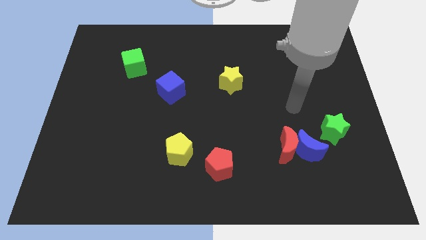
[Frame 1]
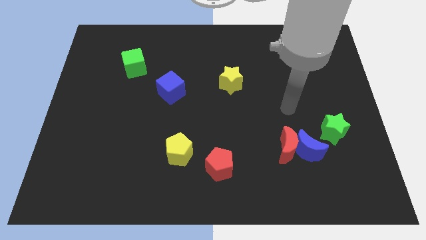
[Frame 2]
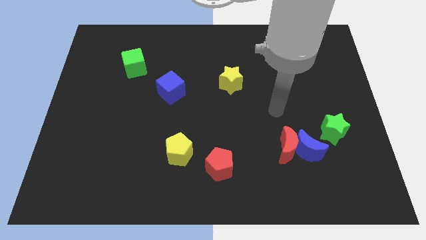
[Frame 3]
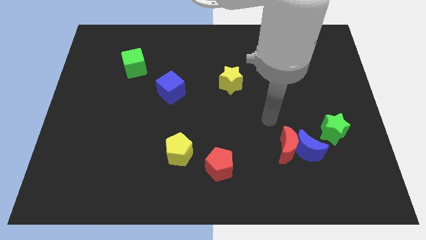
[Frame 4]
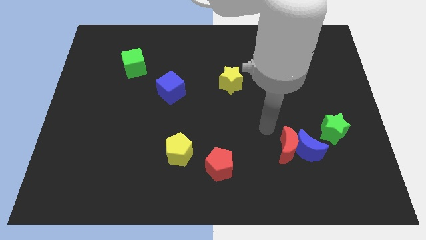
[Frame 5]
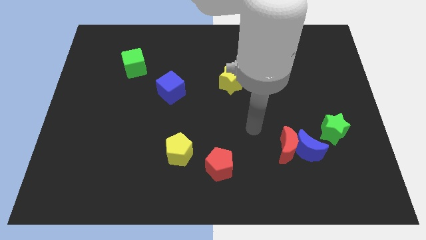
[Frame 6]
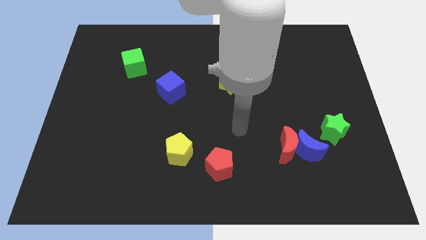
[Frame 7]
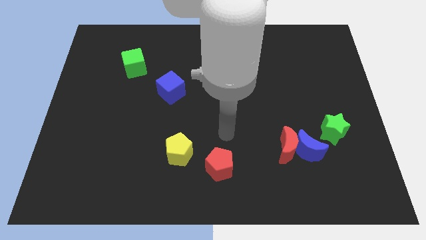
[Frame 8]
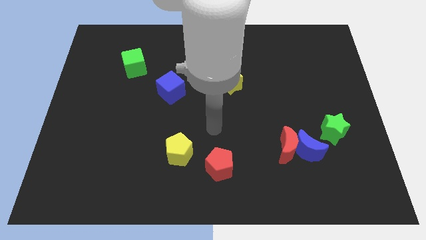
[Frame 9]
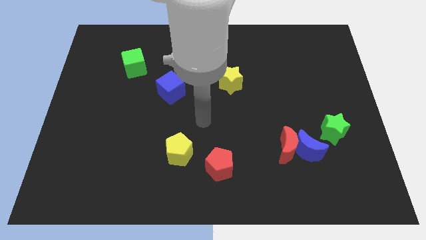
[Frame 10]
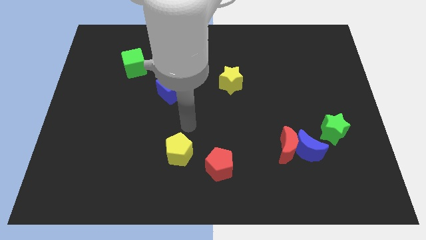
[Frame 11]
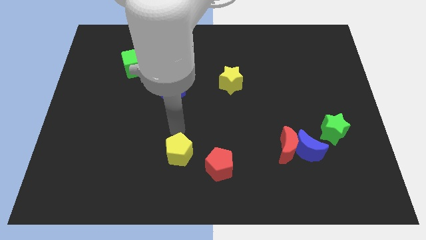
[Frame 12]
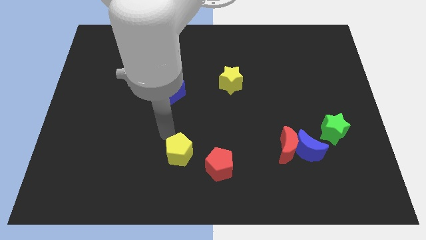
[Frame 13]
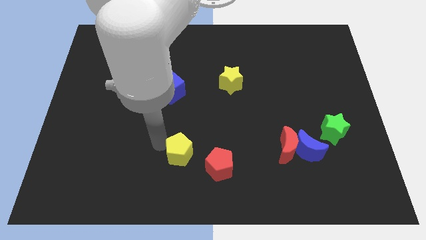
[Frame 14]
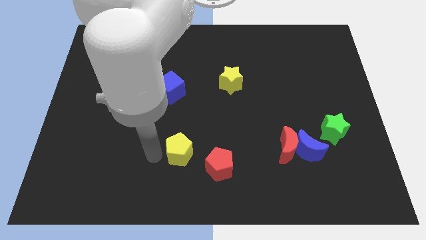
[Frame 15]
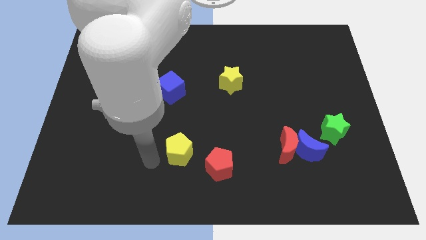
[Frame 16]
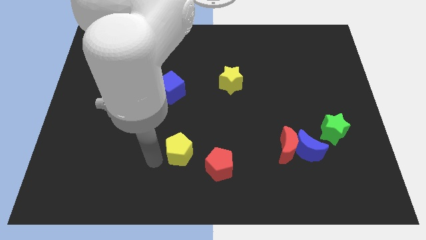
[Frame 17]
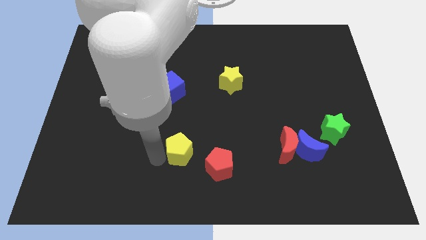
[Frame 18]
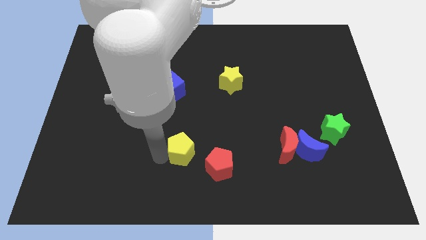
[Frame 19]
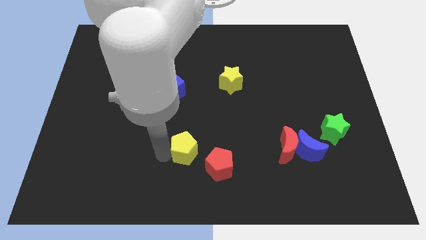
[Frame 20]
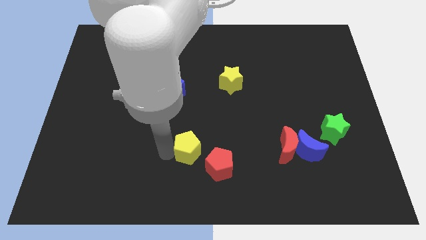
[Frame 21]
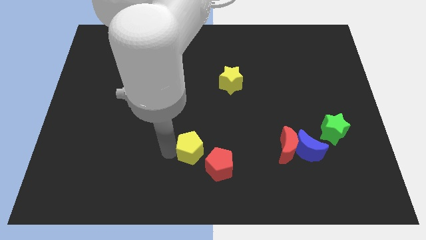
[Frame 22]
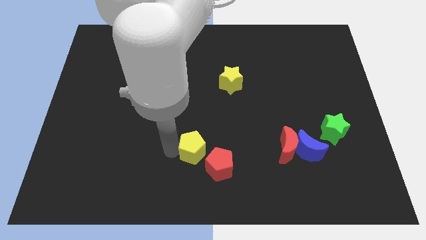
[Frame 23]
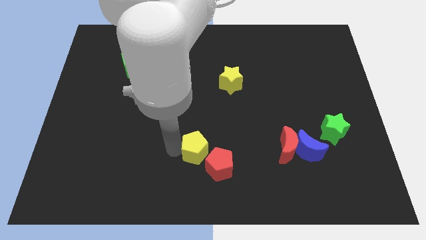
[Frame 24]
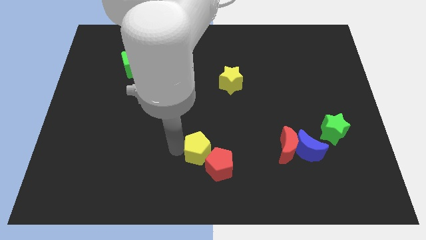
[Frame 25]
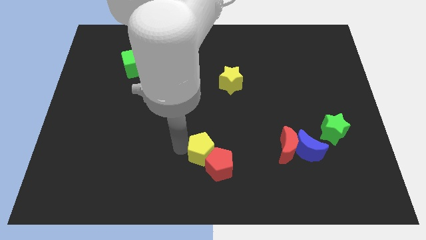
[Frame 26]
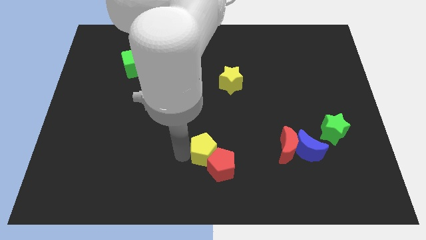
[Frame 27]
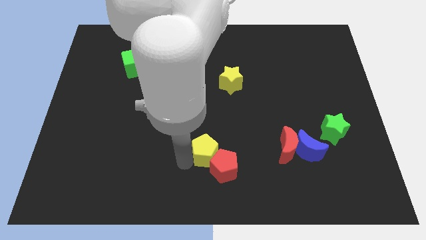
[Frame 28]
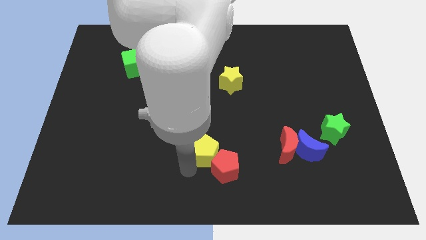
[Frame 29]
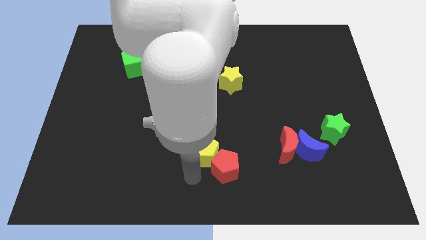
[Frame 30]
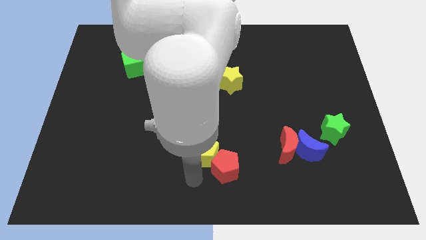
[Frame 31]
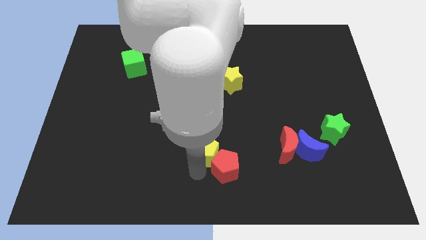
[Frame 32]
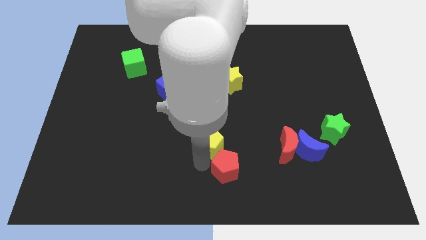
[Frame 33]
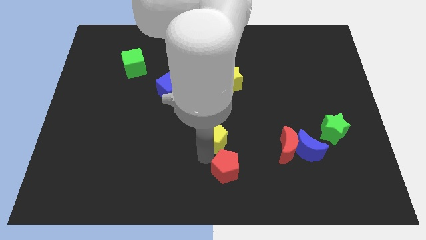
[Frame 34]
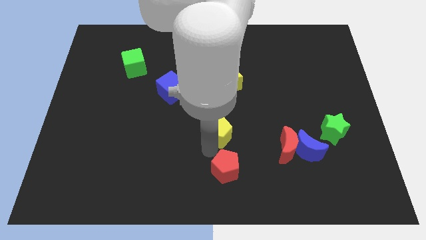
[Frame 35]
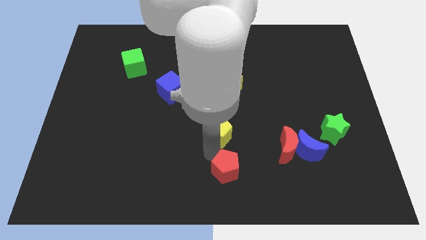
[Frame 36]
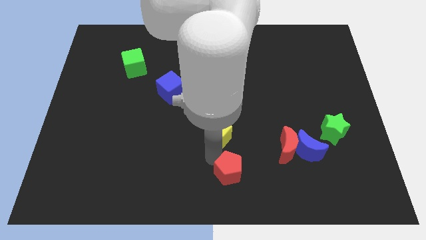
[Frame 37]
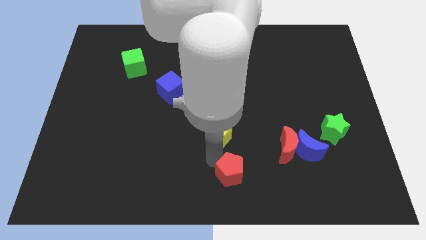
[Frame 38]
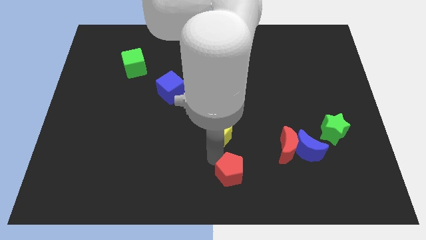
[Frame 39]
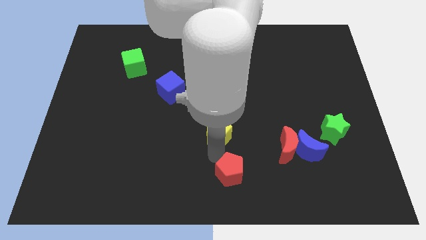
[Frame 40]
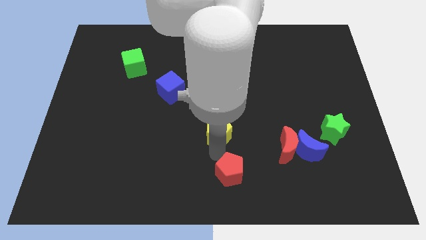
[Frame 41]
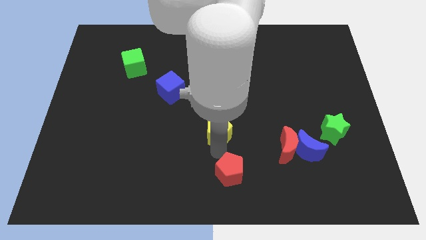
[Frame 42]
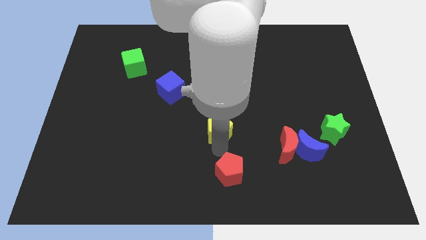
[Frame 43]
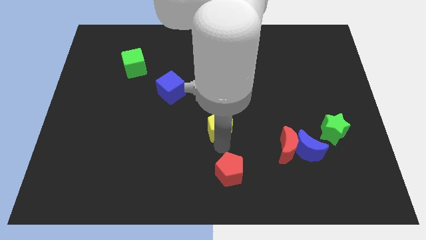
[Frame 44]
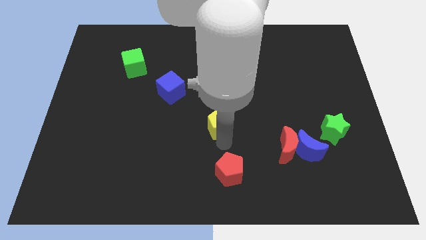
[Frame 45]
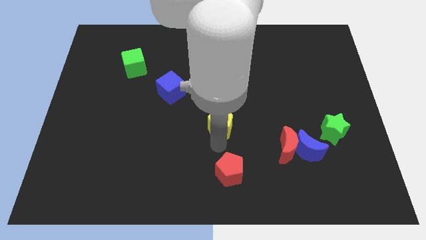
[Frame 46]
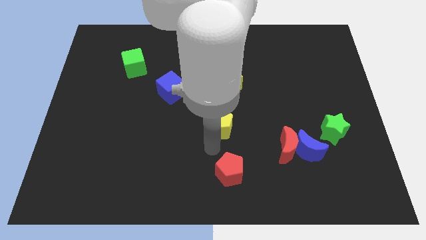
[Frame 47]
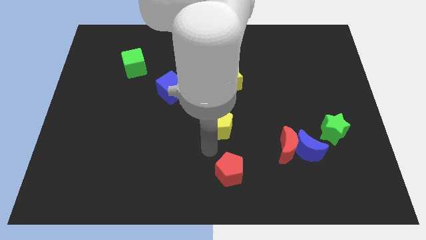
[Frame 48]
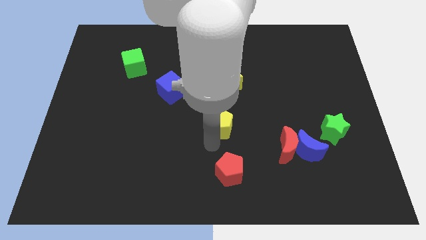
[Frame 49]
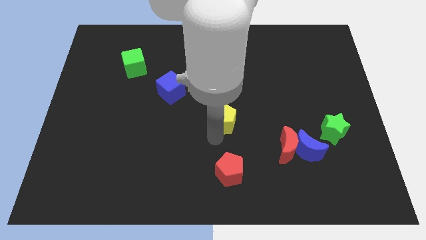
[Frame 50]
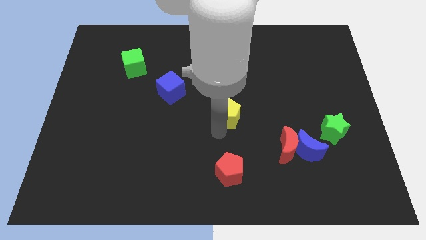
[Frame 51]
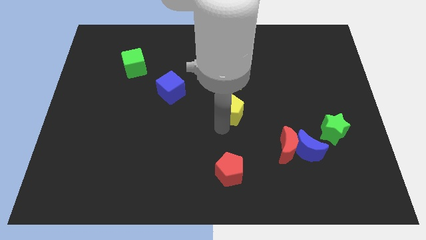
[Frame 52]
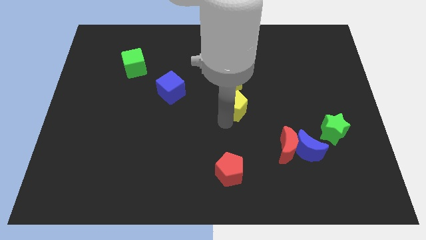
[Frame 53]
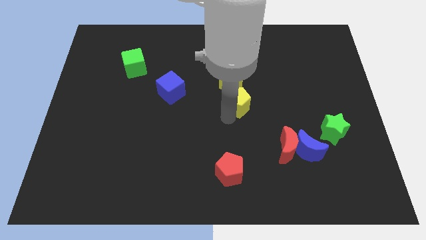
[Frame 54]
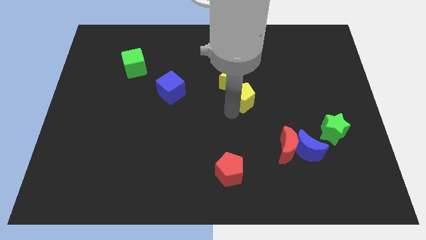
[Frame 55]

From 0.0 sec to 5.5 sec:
slide the yellow pentagon up and to the right

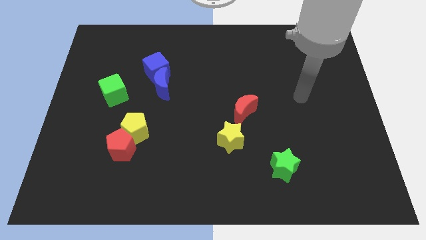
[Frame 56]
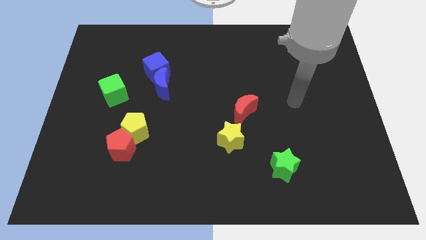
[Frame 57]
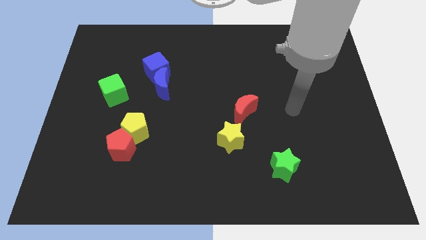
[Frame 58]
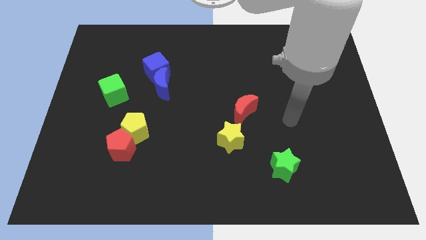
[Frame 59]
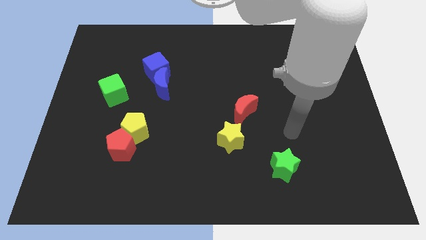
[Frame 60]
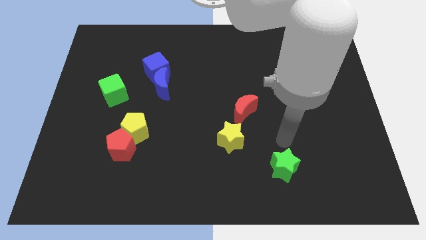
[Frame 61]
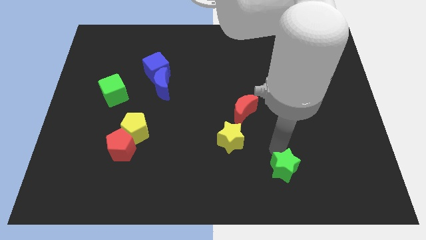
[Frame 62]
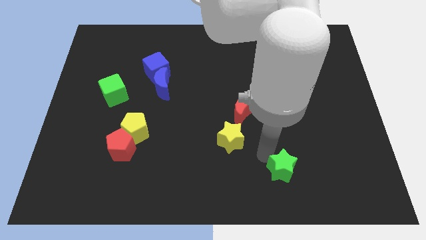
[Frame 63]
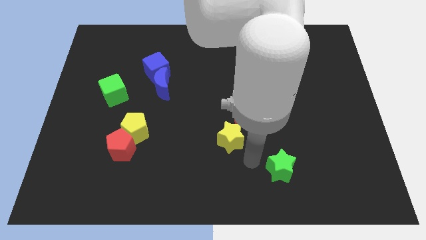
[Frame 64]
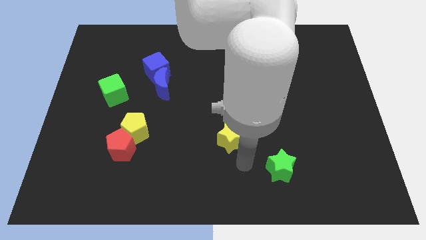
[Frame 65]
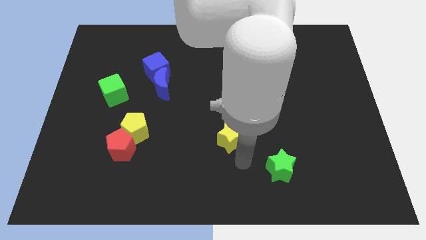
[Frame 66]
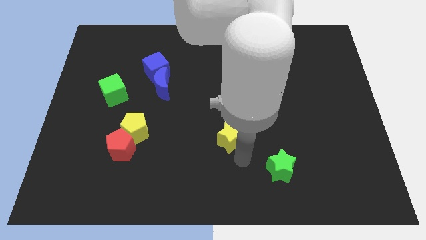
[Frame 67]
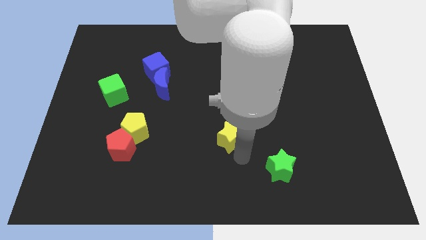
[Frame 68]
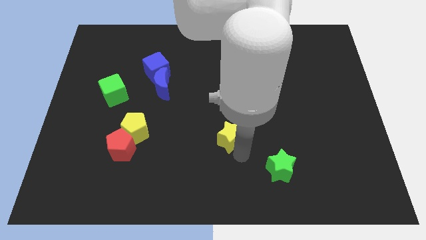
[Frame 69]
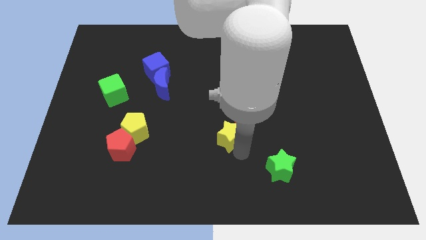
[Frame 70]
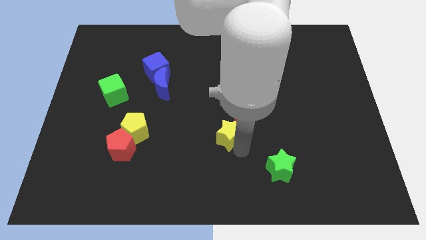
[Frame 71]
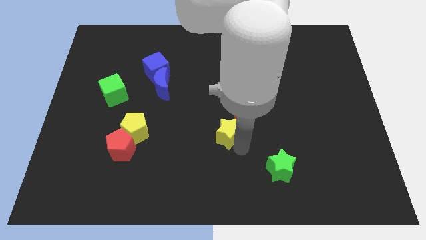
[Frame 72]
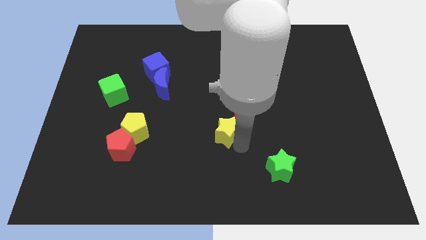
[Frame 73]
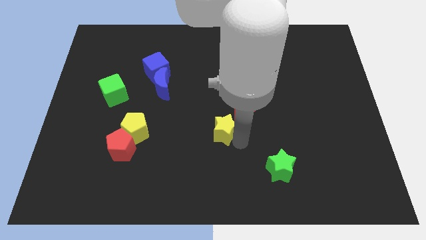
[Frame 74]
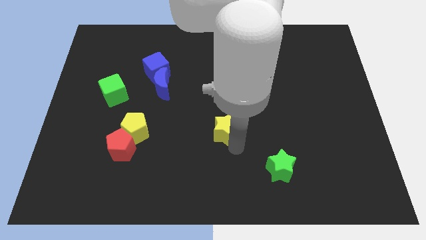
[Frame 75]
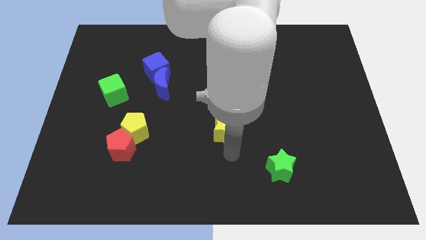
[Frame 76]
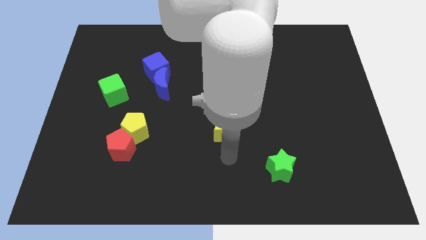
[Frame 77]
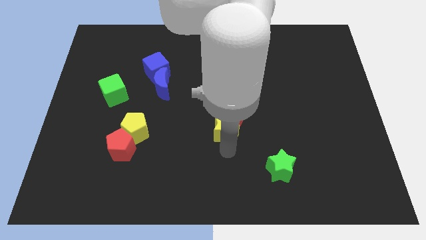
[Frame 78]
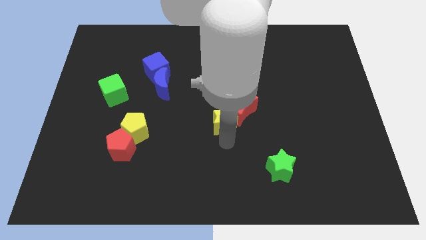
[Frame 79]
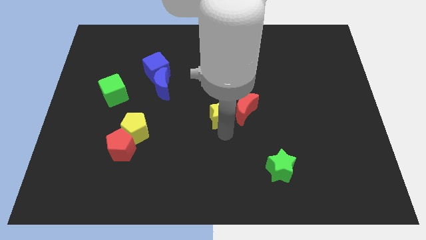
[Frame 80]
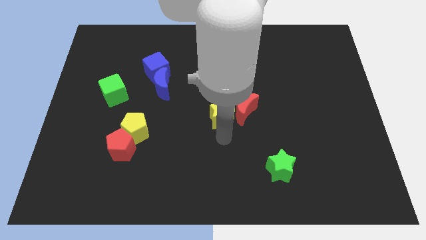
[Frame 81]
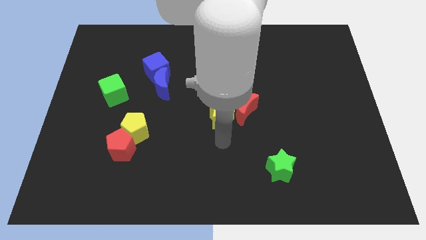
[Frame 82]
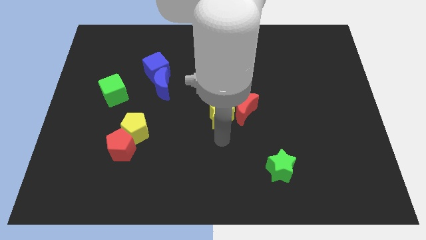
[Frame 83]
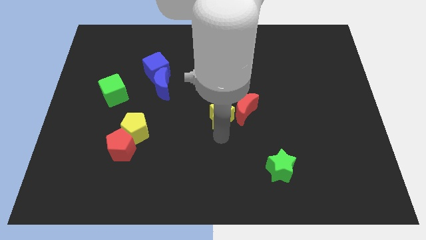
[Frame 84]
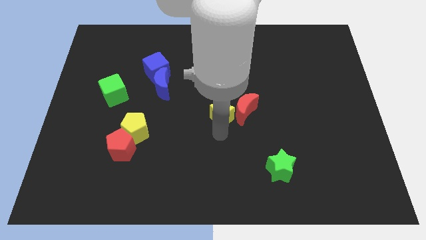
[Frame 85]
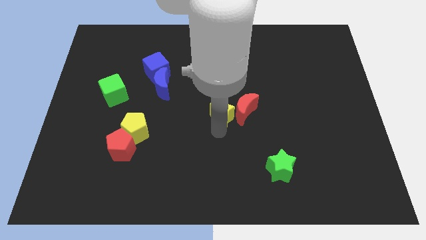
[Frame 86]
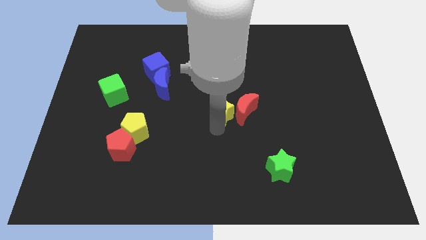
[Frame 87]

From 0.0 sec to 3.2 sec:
push the yellow star a little bit upwards
